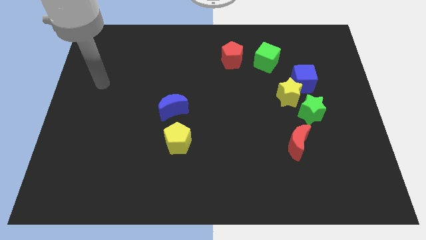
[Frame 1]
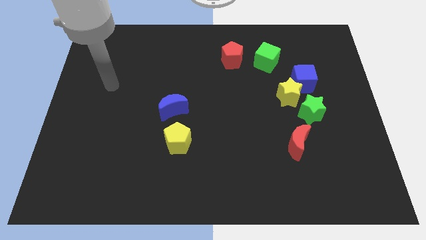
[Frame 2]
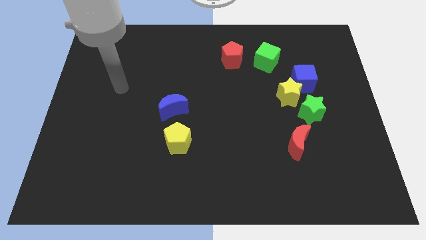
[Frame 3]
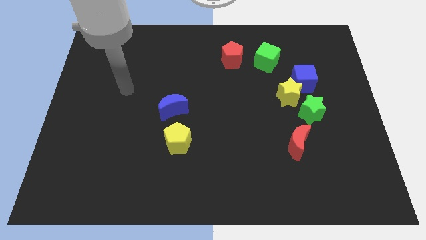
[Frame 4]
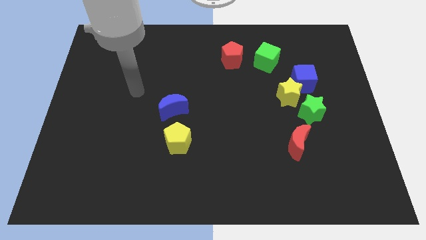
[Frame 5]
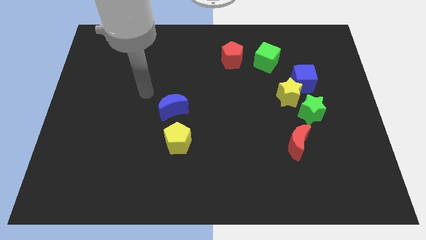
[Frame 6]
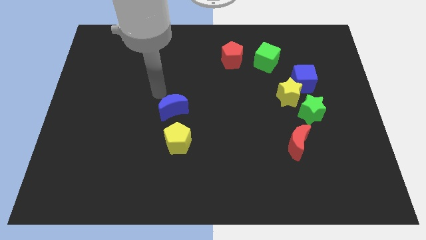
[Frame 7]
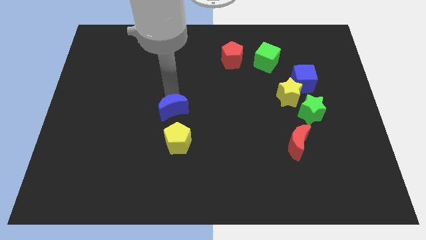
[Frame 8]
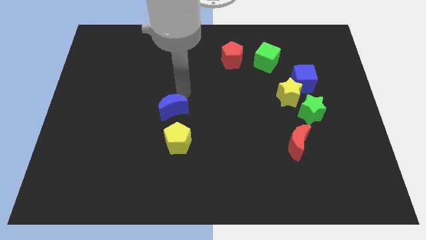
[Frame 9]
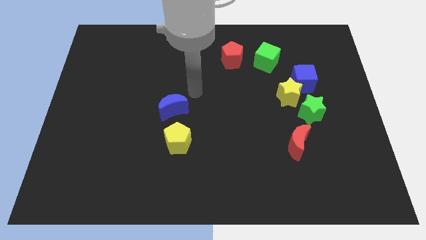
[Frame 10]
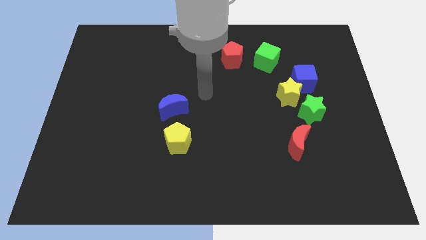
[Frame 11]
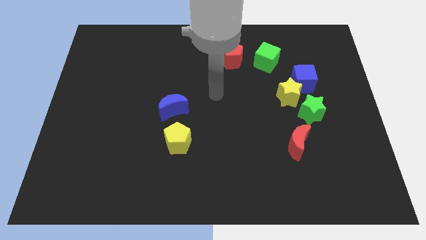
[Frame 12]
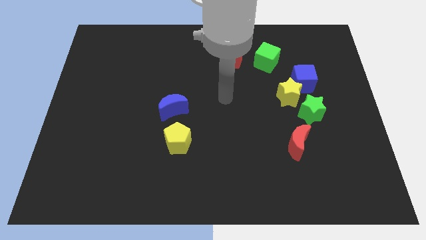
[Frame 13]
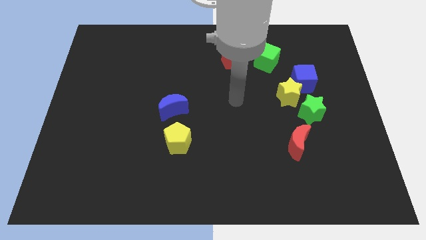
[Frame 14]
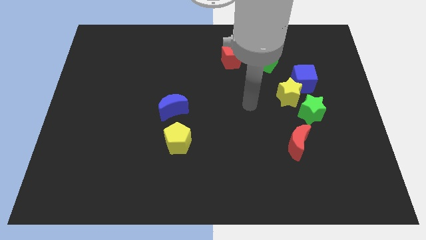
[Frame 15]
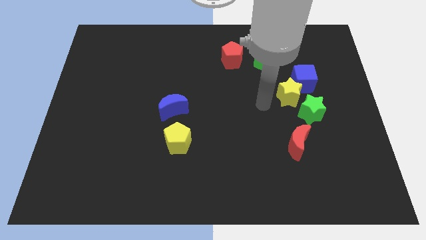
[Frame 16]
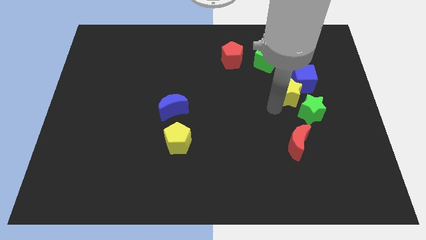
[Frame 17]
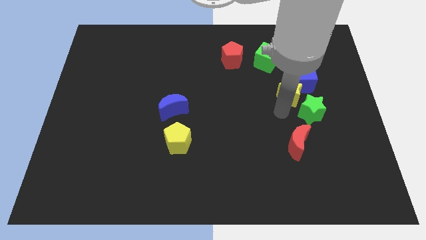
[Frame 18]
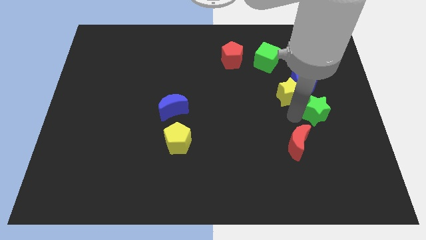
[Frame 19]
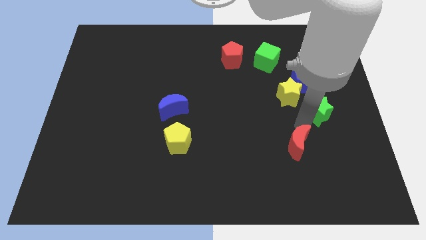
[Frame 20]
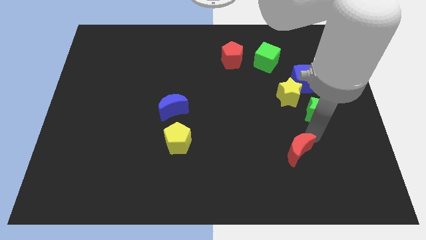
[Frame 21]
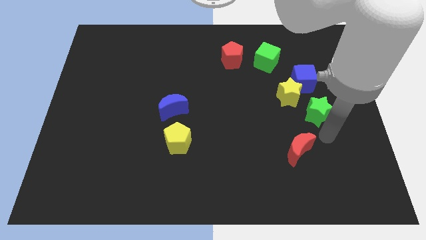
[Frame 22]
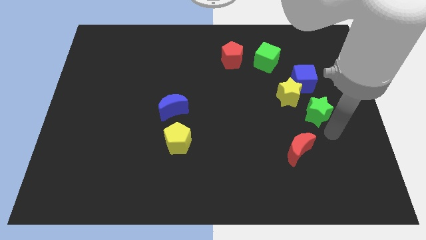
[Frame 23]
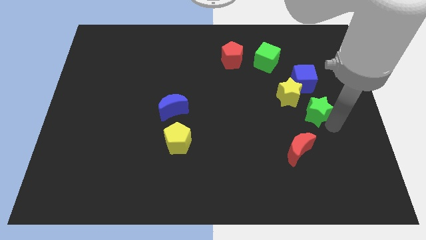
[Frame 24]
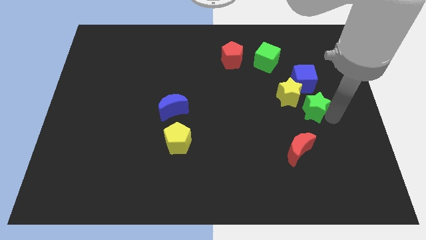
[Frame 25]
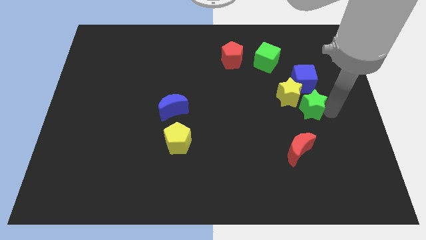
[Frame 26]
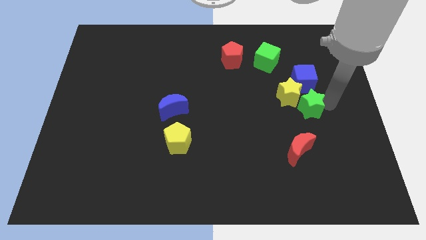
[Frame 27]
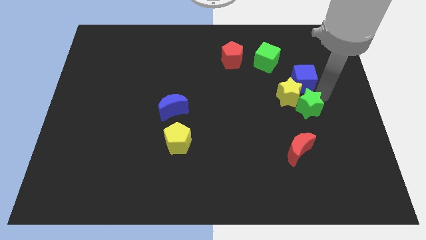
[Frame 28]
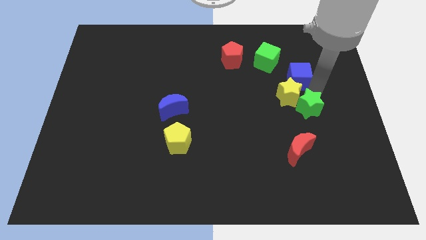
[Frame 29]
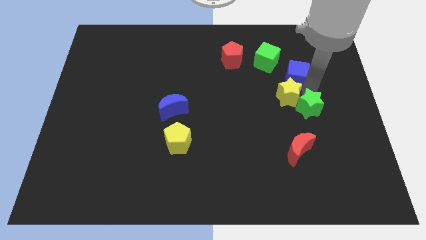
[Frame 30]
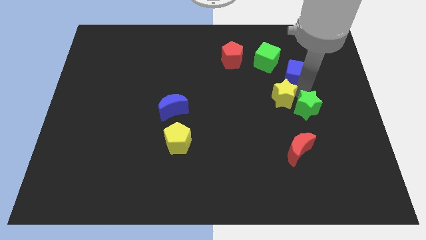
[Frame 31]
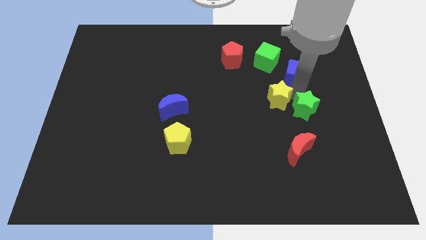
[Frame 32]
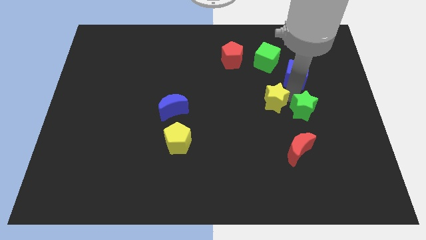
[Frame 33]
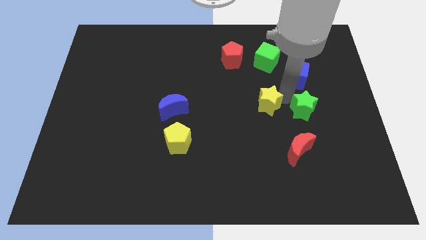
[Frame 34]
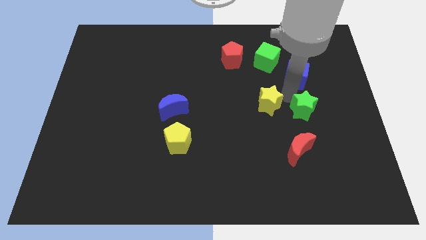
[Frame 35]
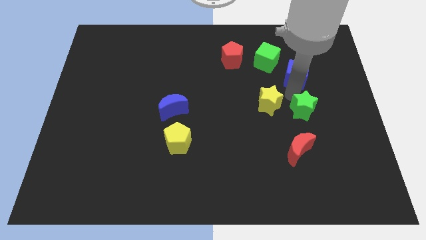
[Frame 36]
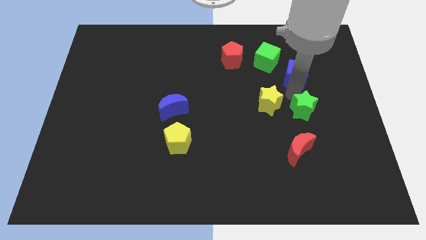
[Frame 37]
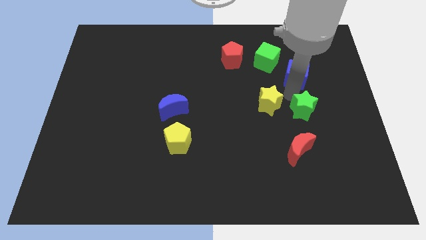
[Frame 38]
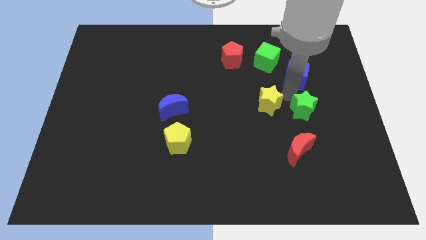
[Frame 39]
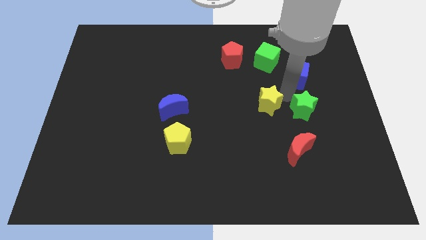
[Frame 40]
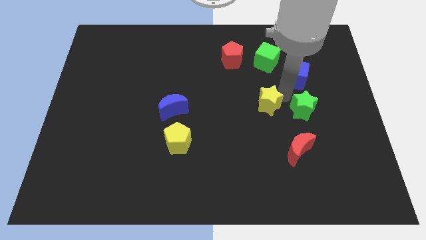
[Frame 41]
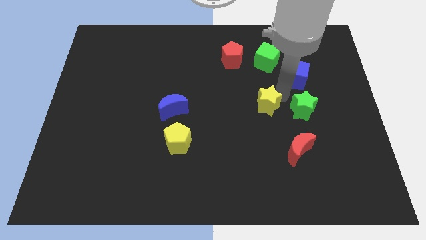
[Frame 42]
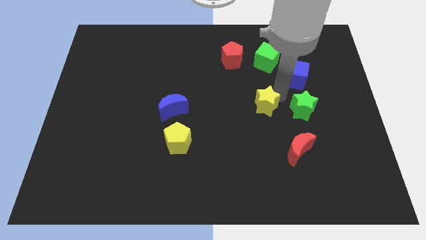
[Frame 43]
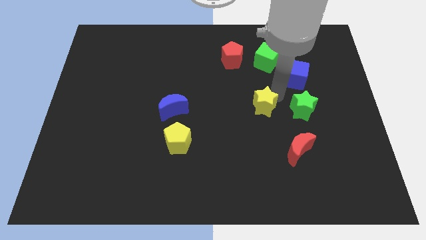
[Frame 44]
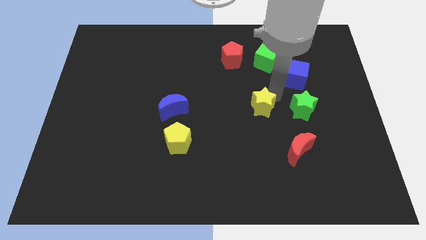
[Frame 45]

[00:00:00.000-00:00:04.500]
pull the yellow star apart from the blue cube and green star

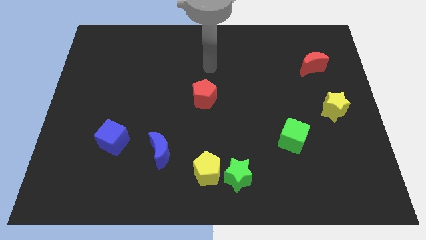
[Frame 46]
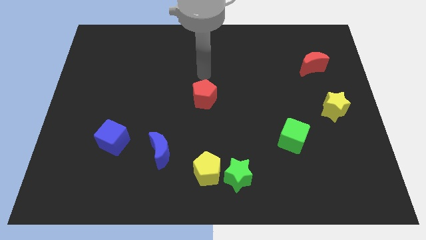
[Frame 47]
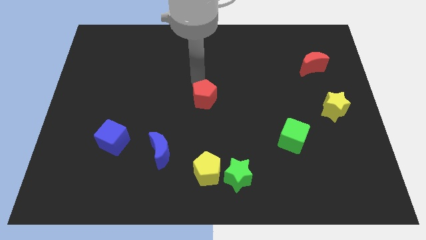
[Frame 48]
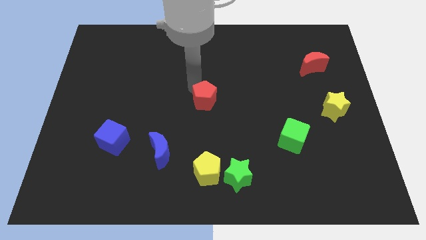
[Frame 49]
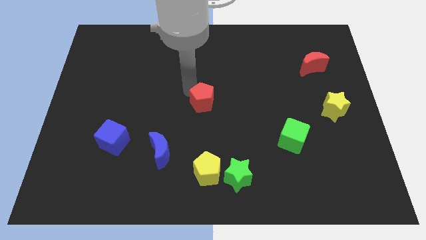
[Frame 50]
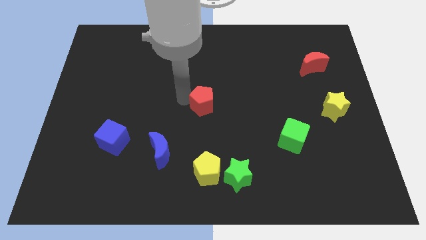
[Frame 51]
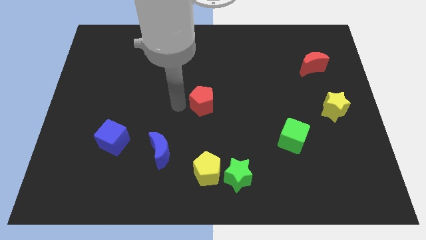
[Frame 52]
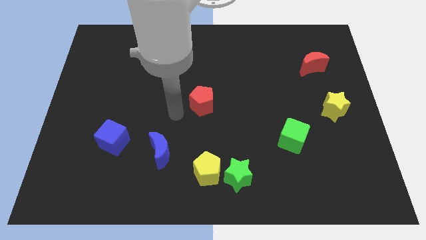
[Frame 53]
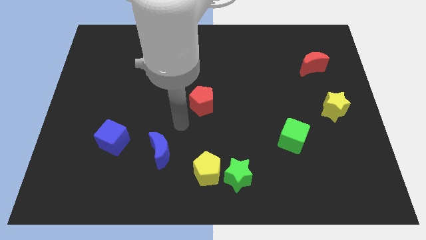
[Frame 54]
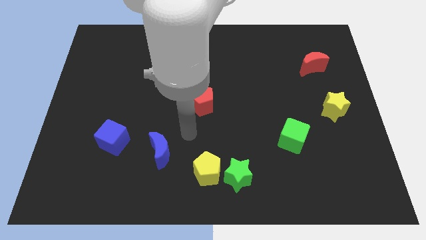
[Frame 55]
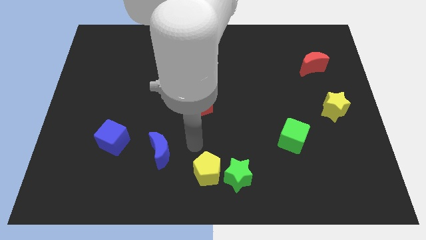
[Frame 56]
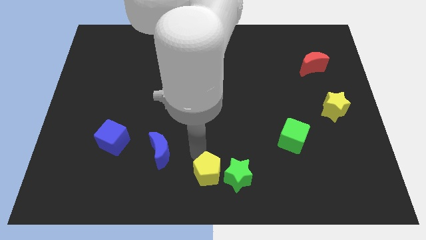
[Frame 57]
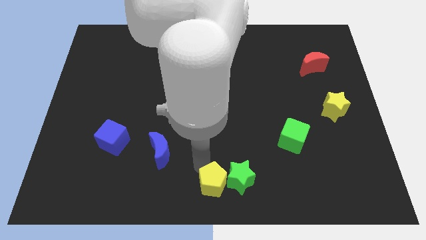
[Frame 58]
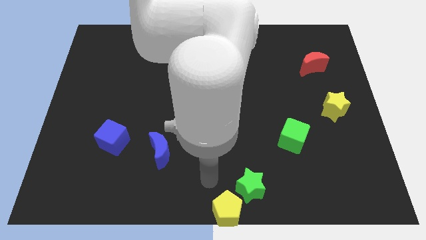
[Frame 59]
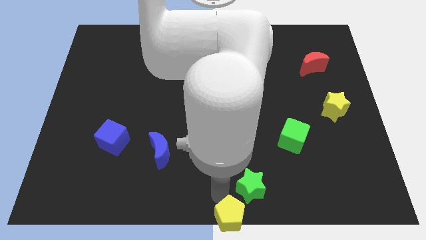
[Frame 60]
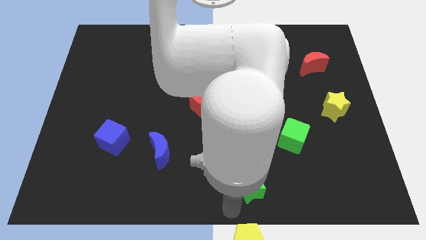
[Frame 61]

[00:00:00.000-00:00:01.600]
separate the green star from the yellow pentagon

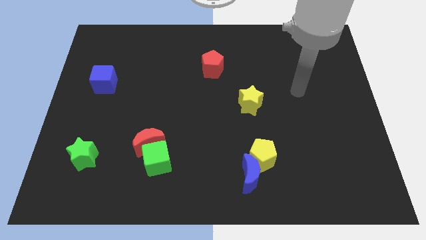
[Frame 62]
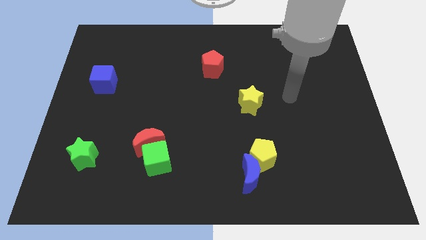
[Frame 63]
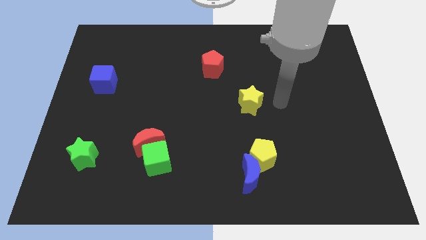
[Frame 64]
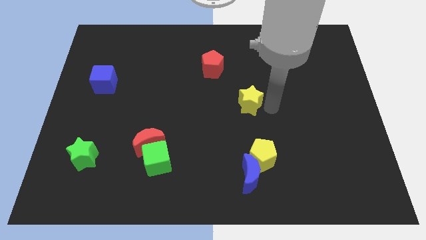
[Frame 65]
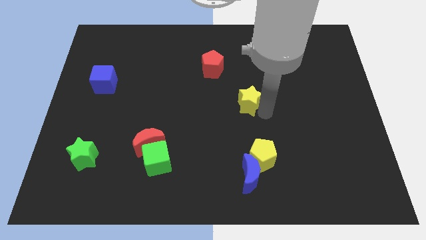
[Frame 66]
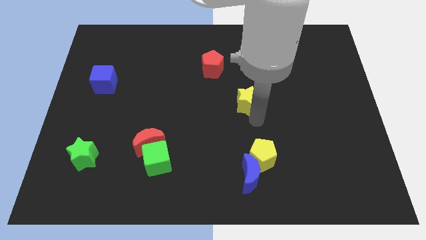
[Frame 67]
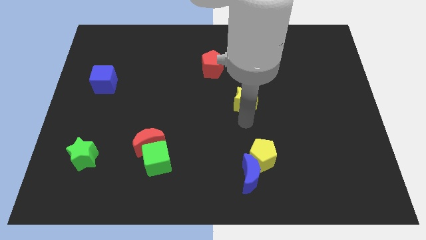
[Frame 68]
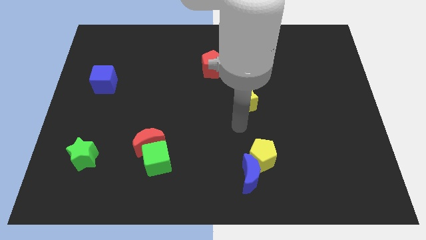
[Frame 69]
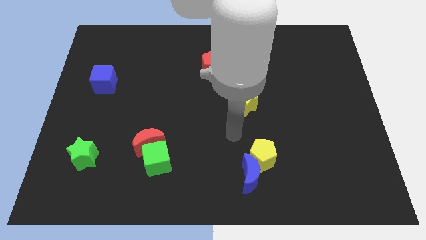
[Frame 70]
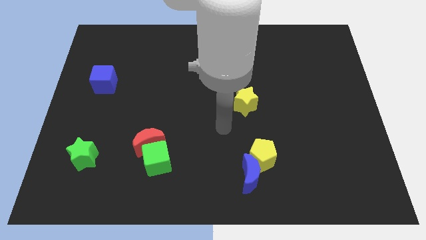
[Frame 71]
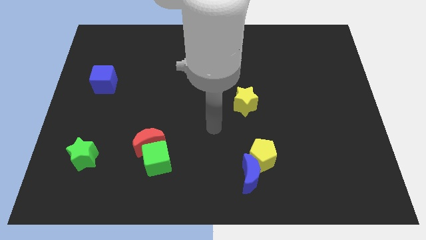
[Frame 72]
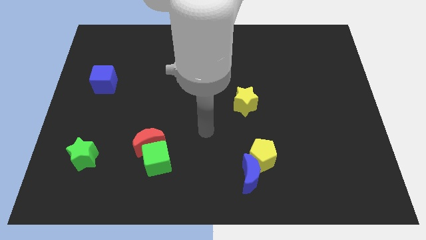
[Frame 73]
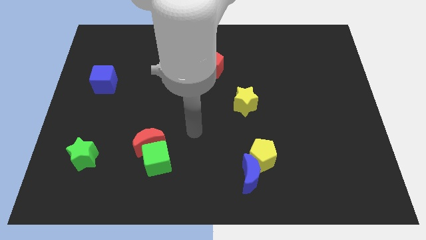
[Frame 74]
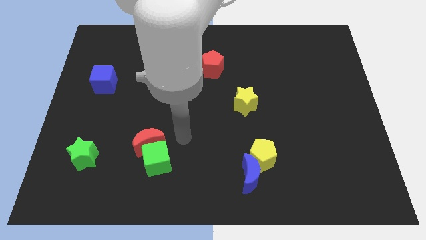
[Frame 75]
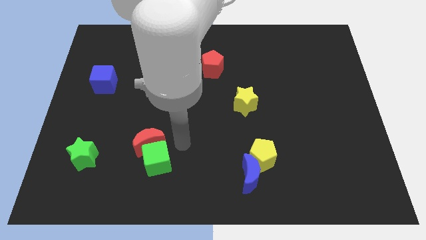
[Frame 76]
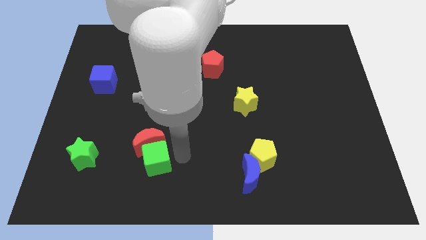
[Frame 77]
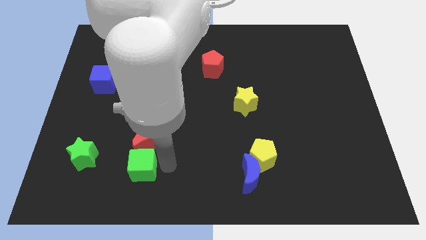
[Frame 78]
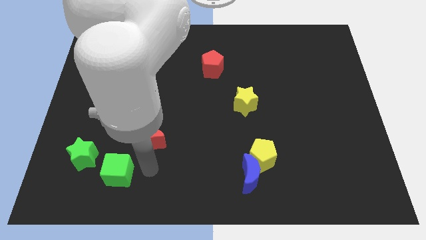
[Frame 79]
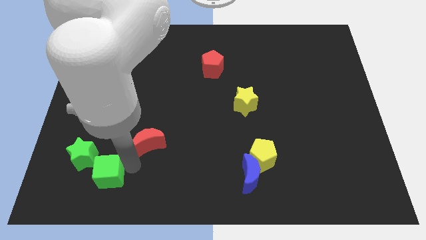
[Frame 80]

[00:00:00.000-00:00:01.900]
separate the red moon from the green cube

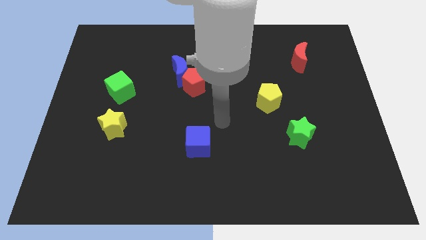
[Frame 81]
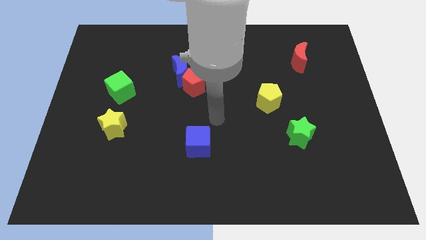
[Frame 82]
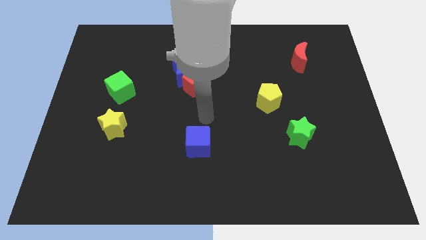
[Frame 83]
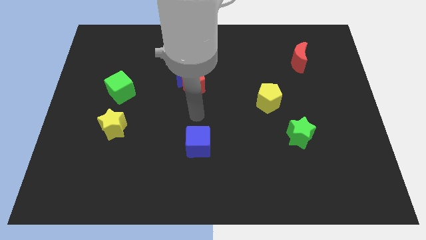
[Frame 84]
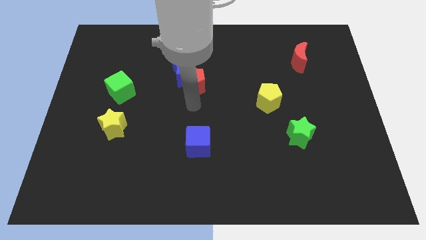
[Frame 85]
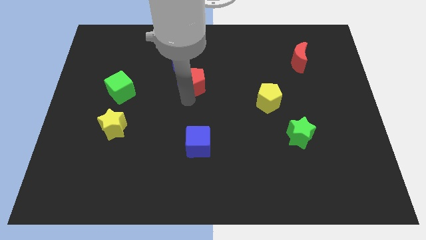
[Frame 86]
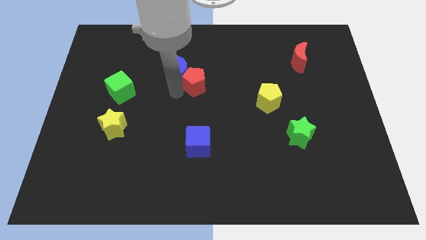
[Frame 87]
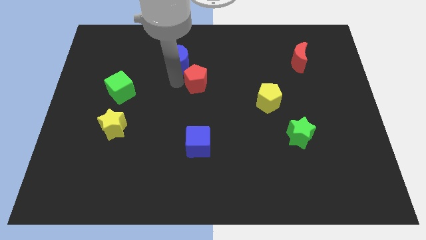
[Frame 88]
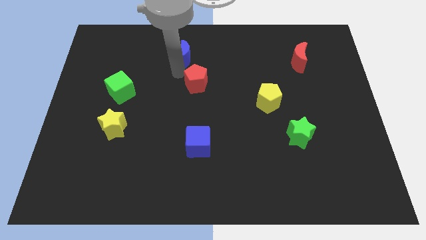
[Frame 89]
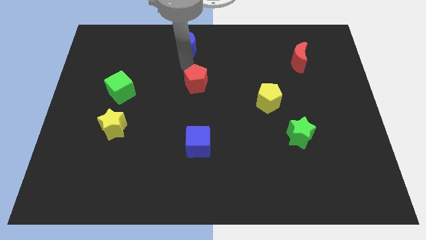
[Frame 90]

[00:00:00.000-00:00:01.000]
separate the red pentagon from the blue moon

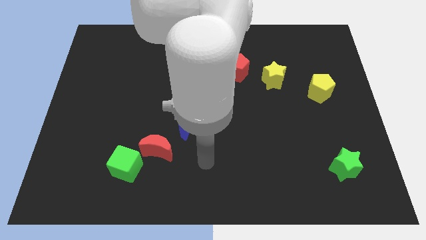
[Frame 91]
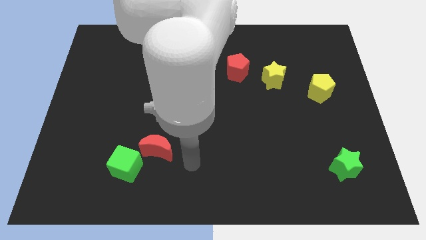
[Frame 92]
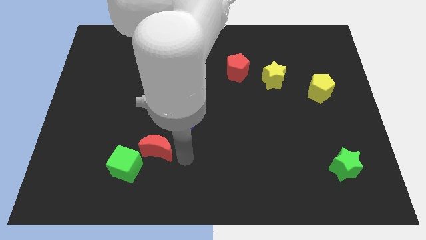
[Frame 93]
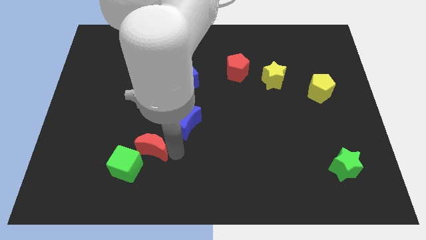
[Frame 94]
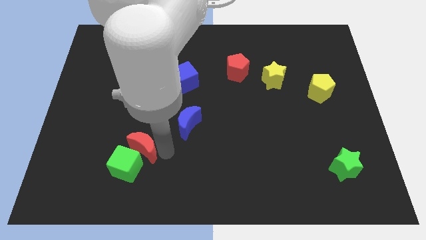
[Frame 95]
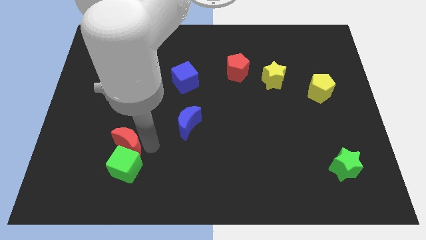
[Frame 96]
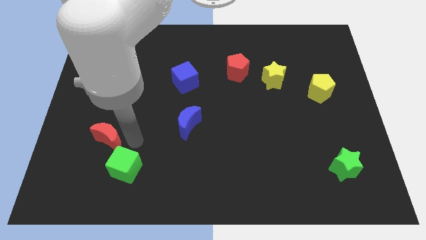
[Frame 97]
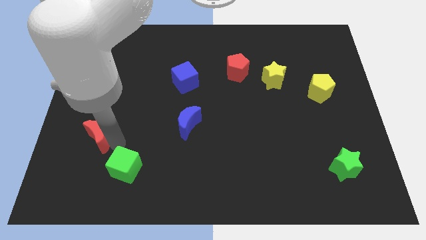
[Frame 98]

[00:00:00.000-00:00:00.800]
move the green cube away from the red moon
